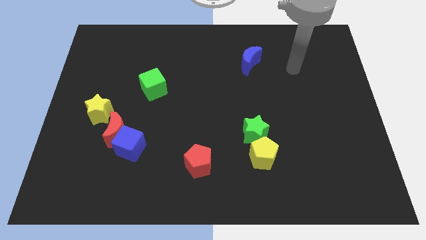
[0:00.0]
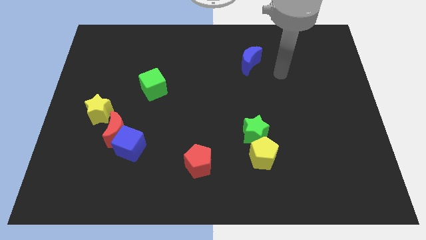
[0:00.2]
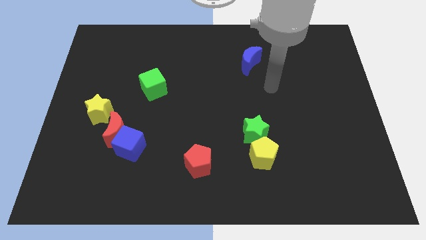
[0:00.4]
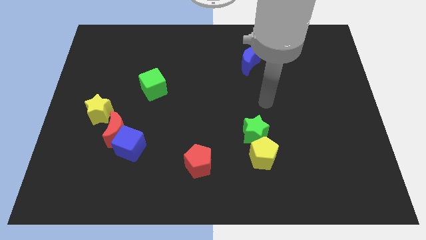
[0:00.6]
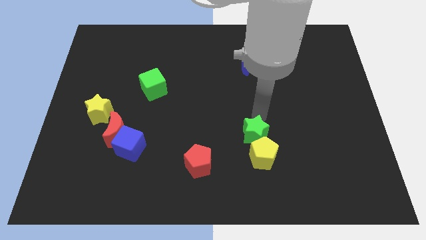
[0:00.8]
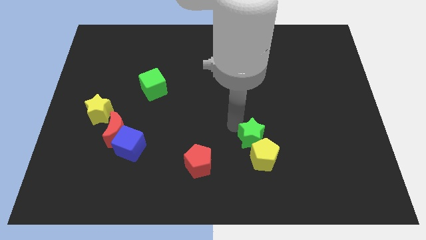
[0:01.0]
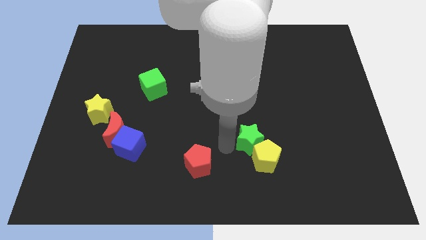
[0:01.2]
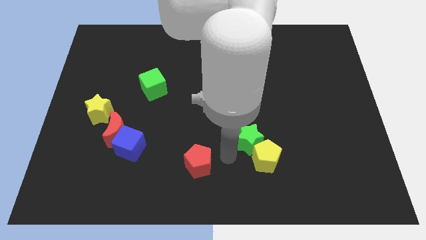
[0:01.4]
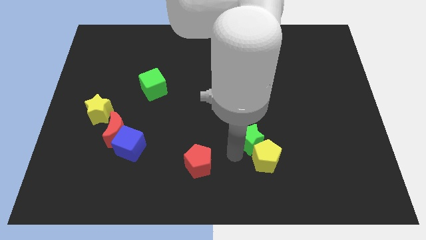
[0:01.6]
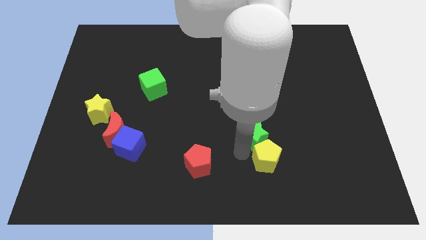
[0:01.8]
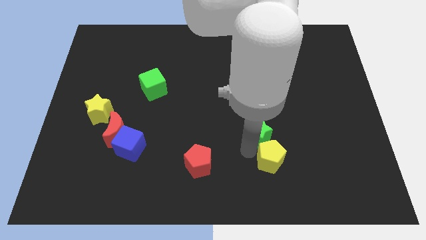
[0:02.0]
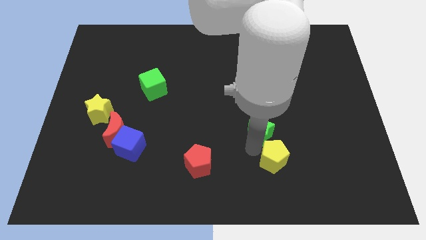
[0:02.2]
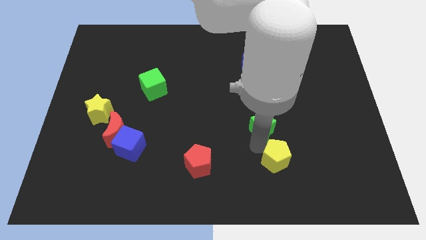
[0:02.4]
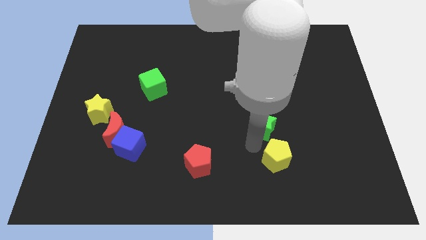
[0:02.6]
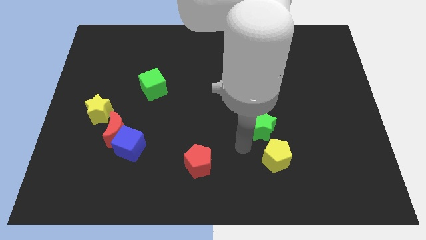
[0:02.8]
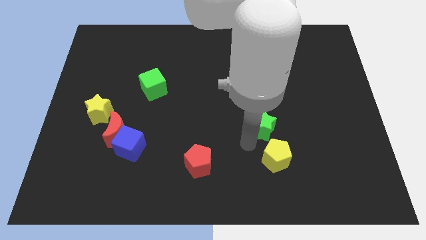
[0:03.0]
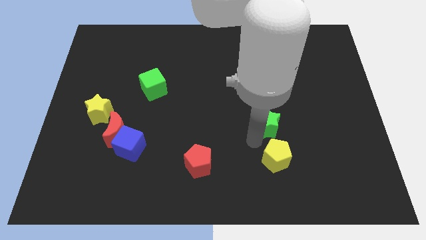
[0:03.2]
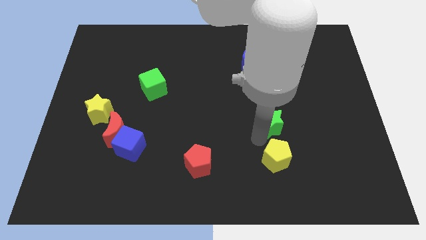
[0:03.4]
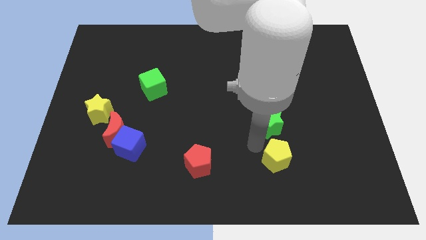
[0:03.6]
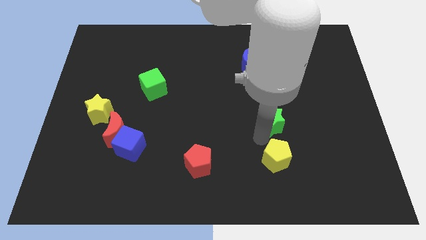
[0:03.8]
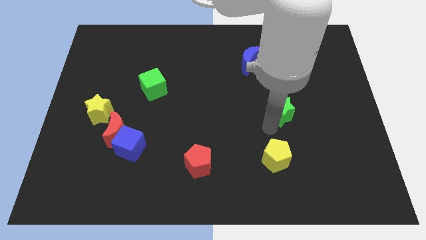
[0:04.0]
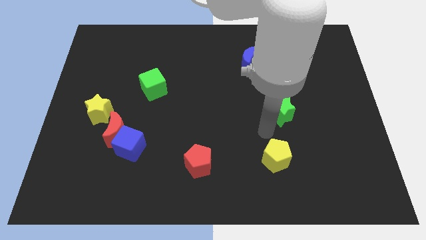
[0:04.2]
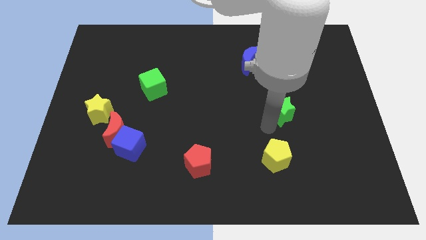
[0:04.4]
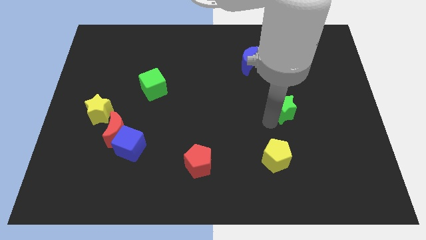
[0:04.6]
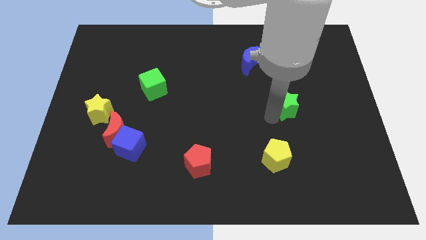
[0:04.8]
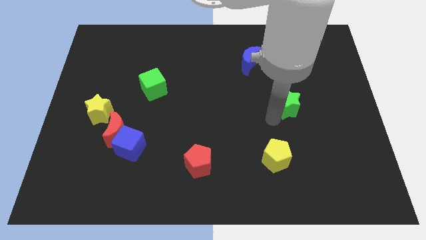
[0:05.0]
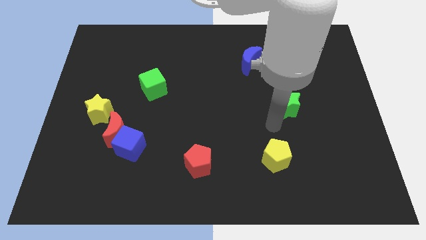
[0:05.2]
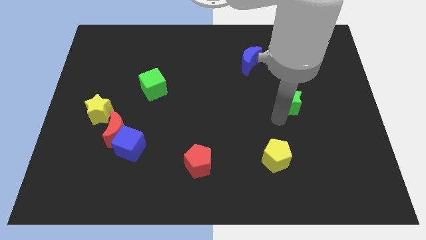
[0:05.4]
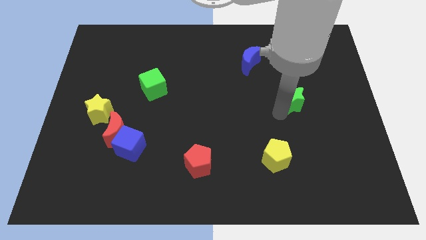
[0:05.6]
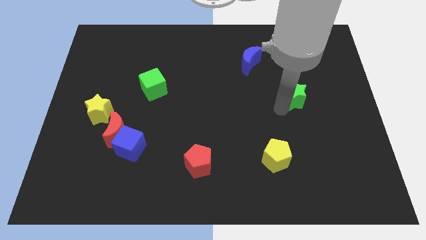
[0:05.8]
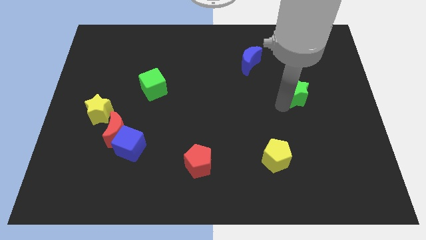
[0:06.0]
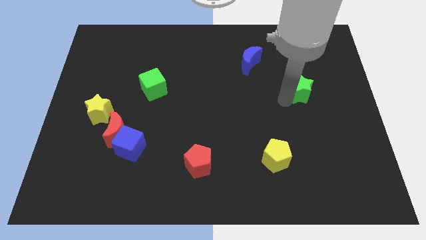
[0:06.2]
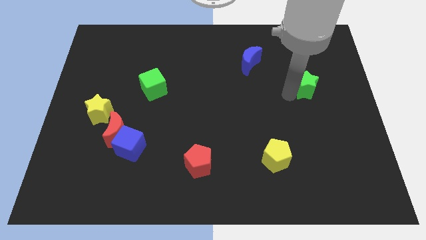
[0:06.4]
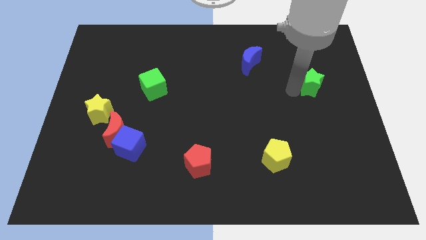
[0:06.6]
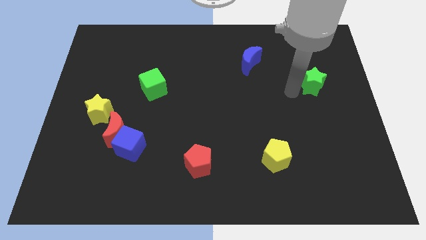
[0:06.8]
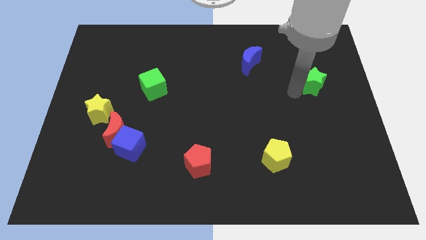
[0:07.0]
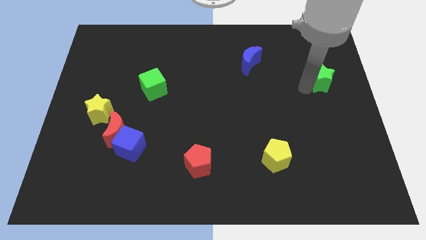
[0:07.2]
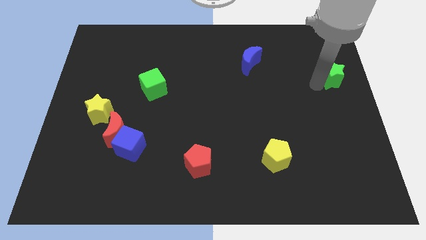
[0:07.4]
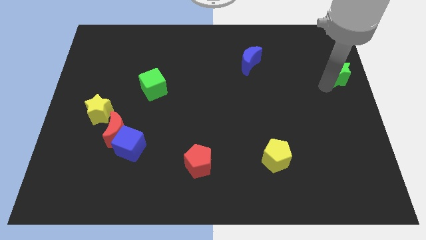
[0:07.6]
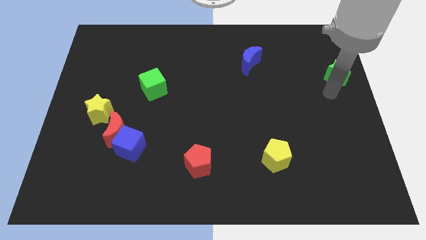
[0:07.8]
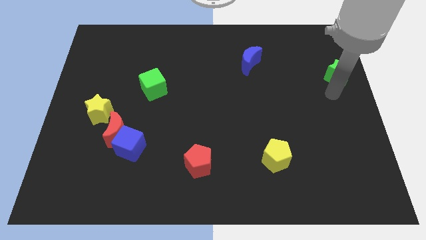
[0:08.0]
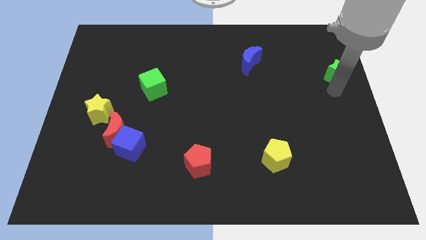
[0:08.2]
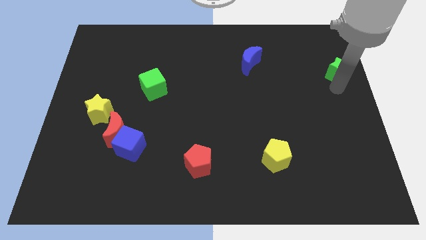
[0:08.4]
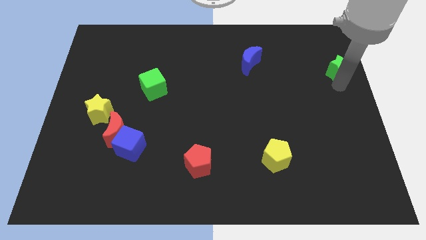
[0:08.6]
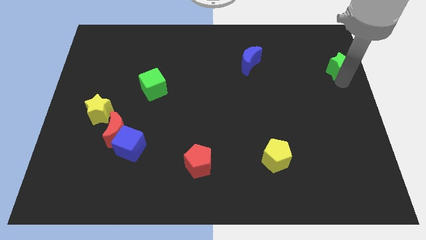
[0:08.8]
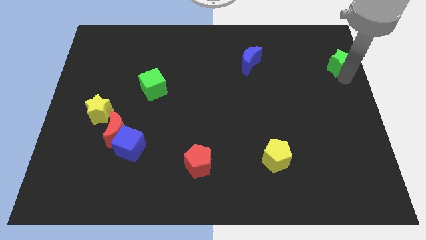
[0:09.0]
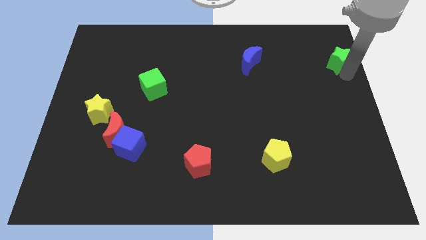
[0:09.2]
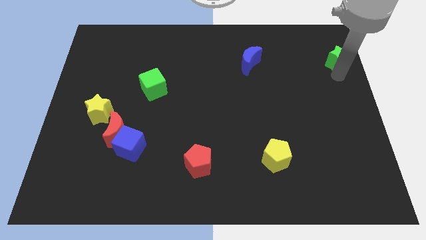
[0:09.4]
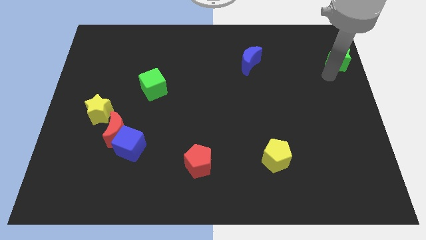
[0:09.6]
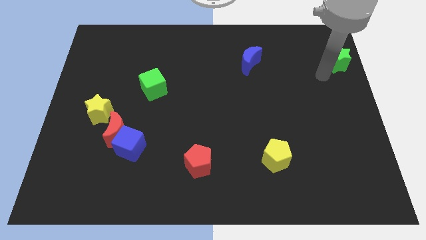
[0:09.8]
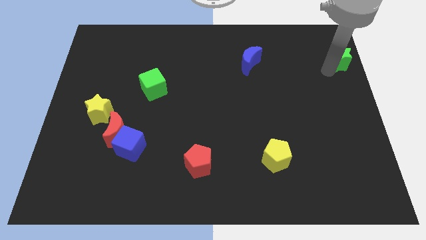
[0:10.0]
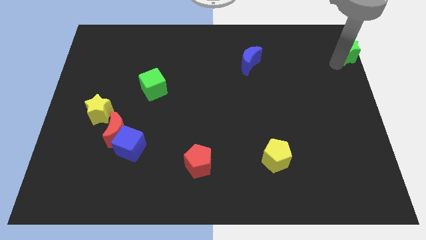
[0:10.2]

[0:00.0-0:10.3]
move the green star to the top right of the board
